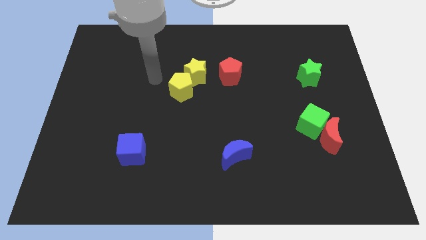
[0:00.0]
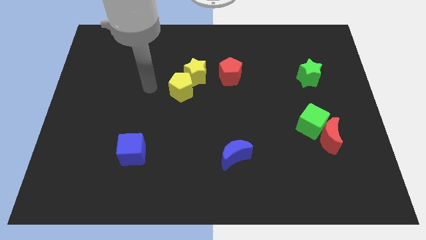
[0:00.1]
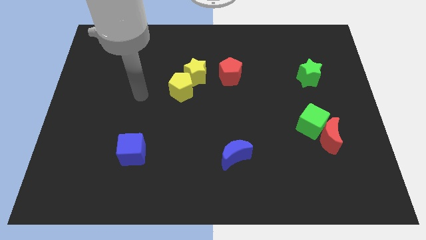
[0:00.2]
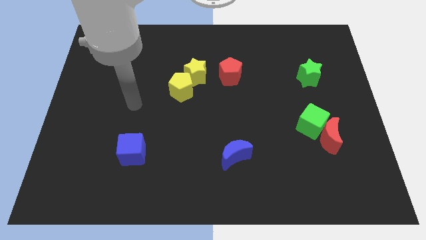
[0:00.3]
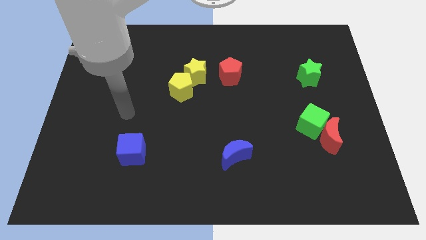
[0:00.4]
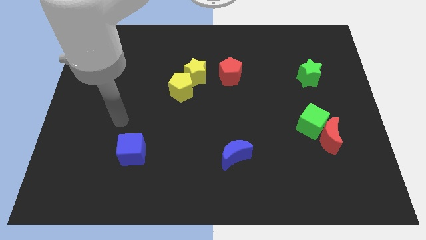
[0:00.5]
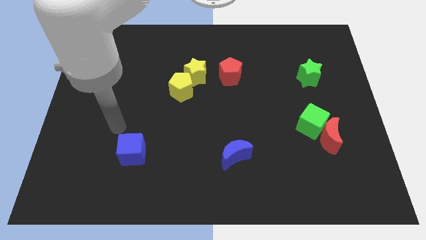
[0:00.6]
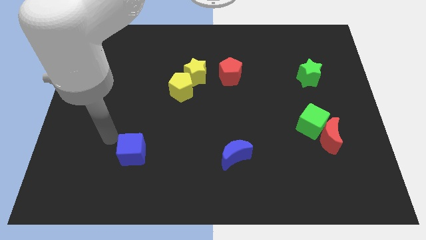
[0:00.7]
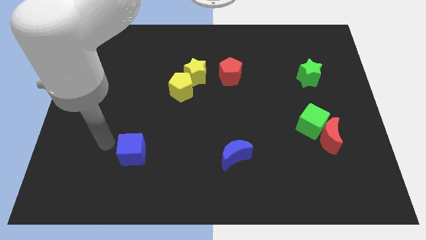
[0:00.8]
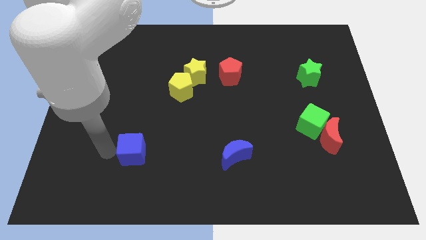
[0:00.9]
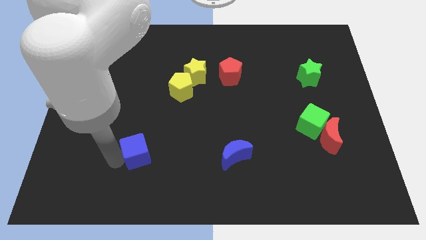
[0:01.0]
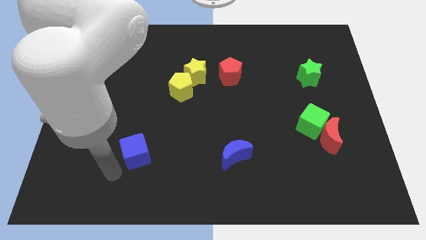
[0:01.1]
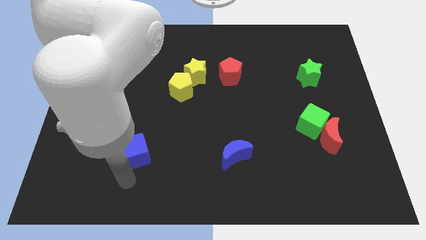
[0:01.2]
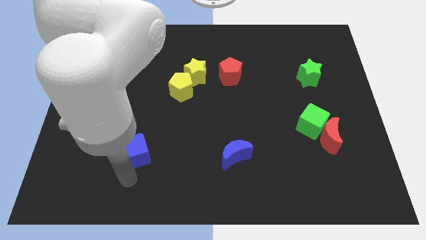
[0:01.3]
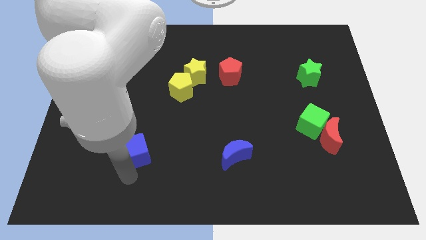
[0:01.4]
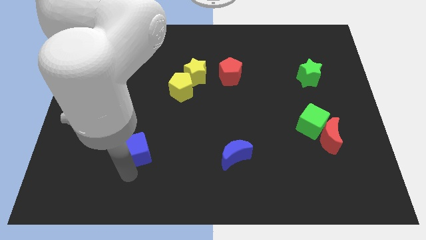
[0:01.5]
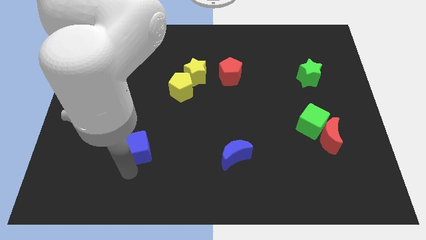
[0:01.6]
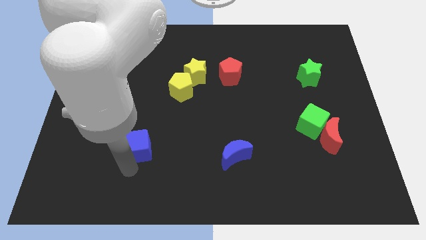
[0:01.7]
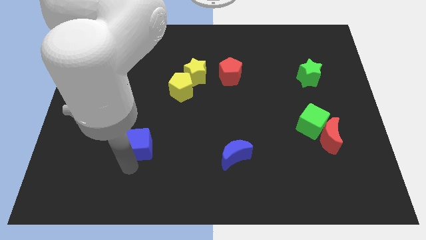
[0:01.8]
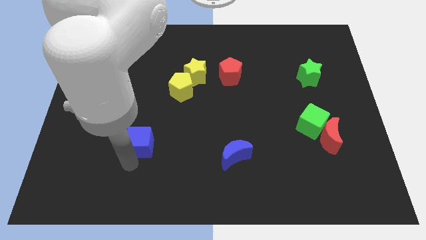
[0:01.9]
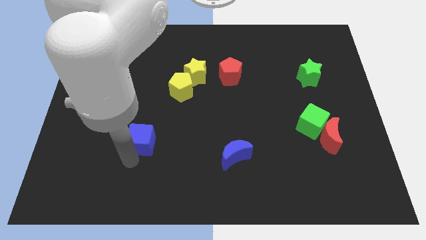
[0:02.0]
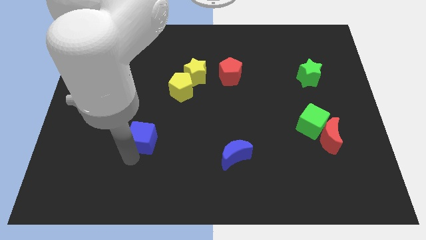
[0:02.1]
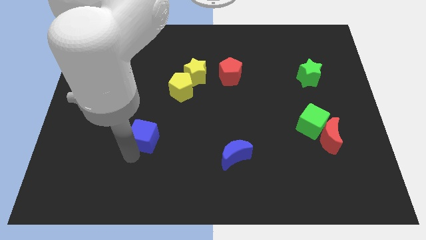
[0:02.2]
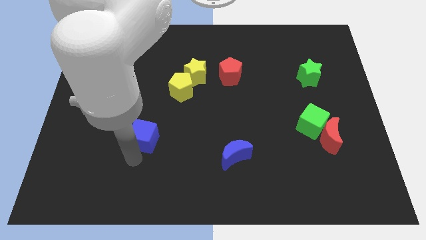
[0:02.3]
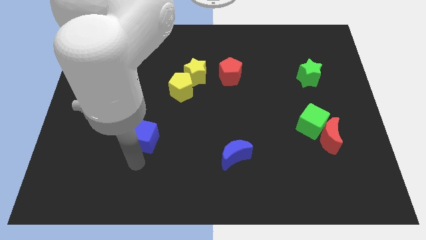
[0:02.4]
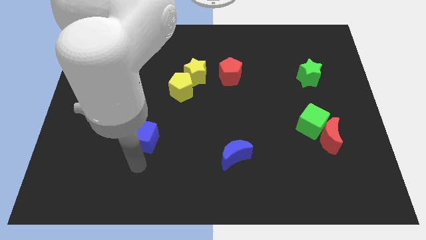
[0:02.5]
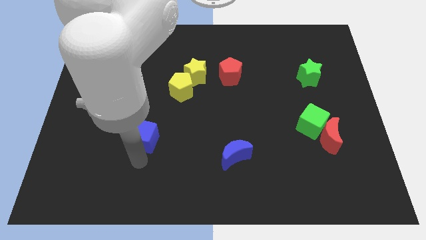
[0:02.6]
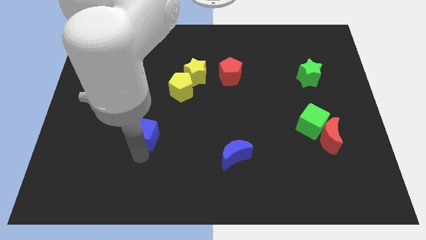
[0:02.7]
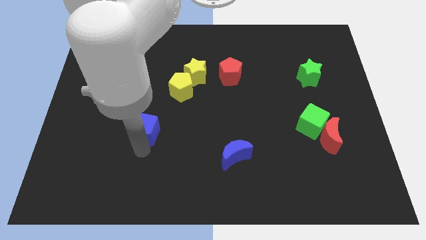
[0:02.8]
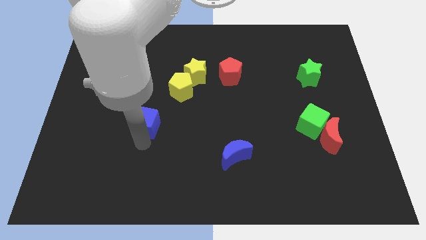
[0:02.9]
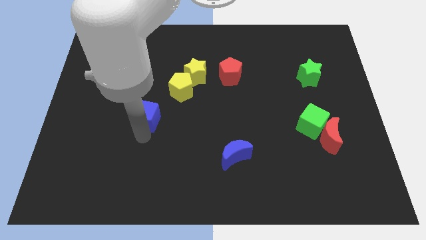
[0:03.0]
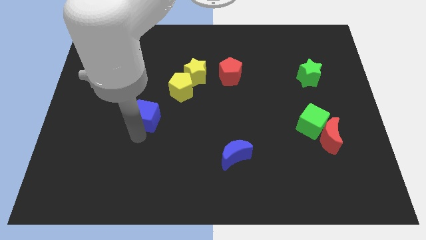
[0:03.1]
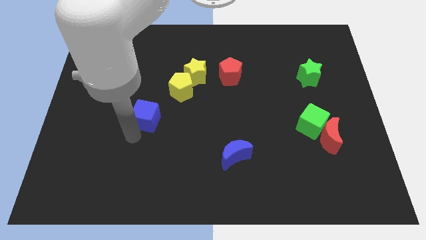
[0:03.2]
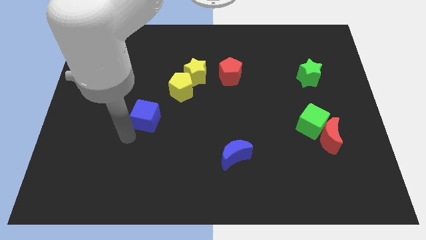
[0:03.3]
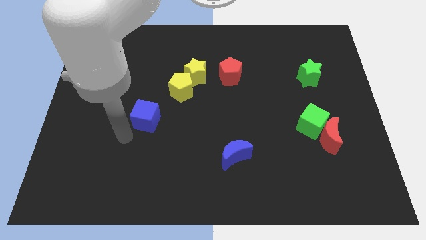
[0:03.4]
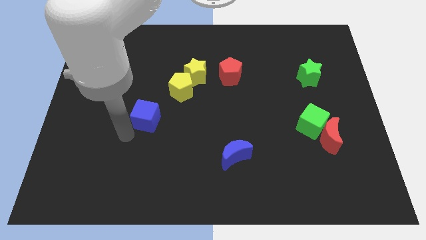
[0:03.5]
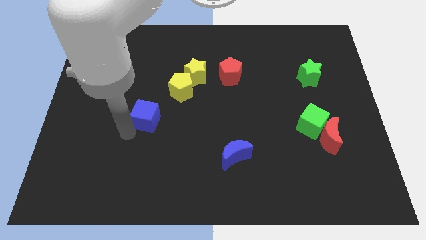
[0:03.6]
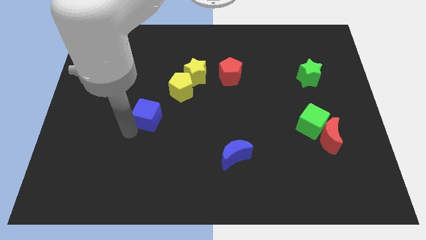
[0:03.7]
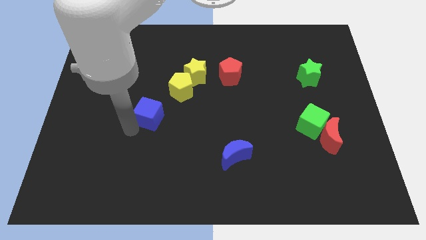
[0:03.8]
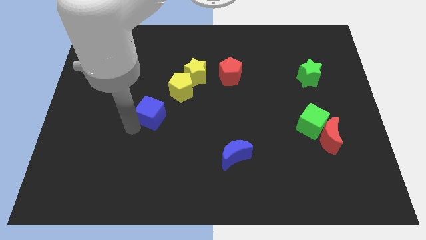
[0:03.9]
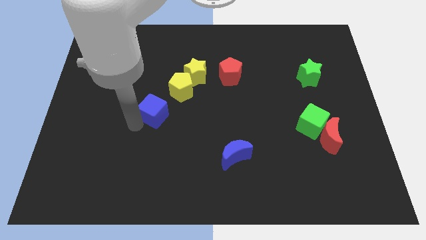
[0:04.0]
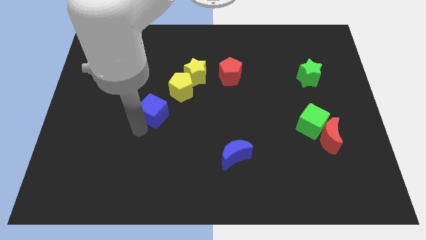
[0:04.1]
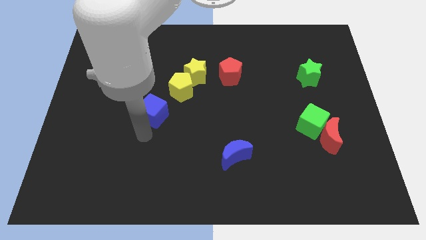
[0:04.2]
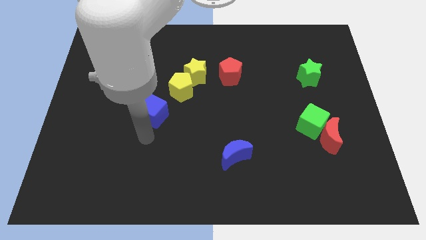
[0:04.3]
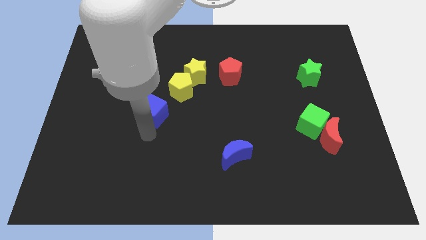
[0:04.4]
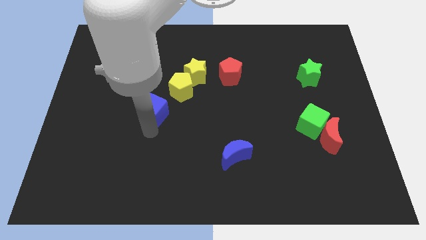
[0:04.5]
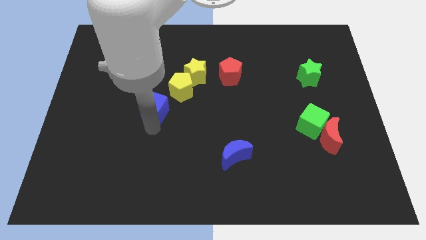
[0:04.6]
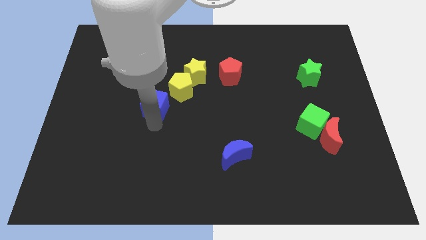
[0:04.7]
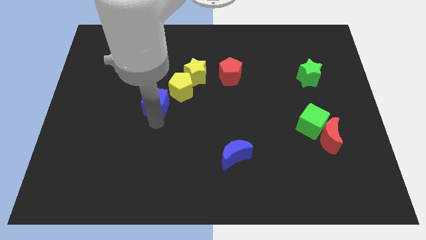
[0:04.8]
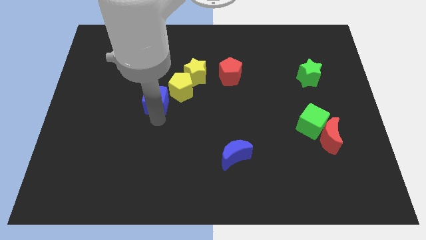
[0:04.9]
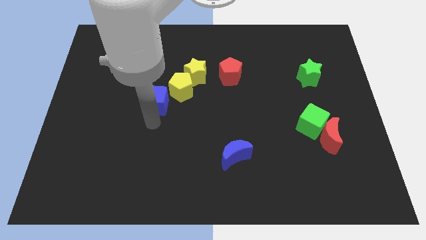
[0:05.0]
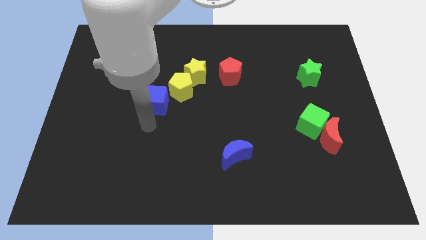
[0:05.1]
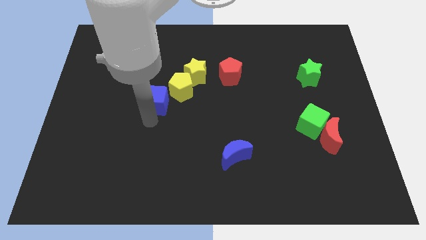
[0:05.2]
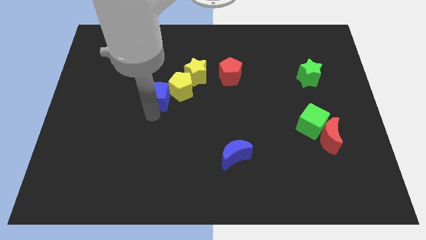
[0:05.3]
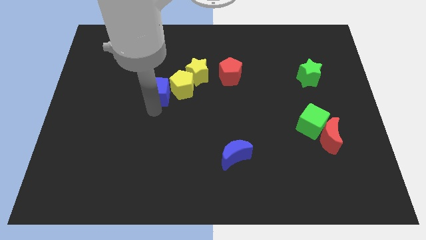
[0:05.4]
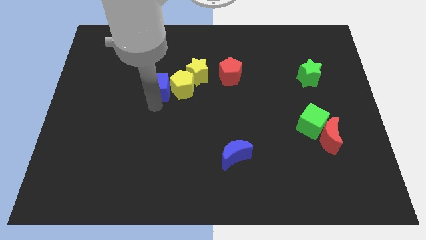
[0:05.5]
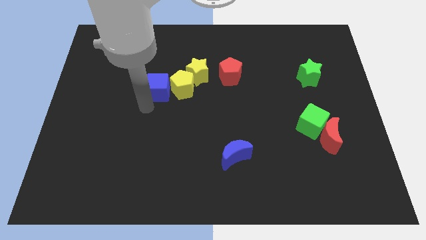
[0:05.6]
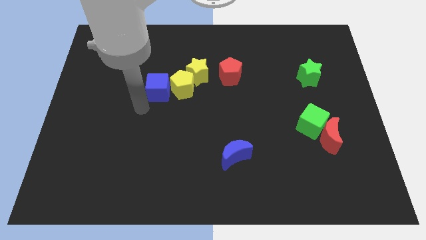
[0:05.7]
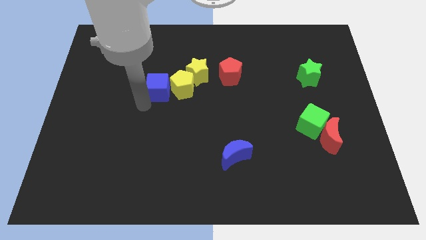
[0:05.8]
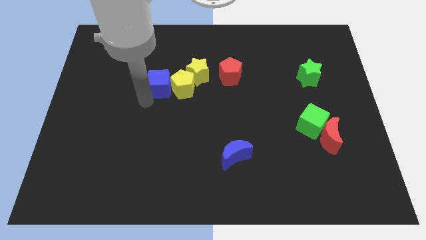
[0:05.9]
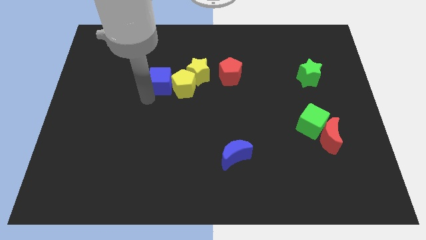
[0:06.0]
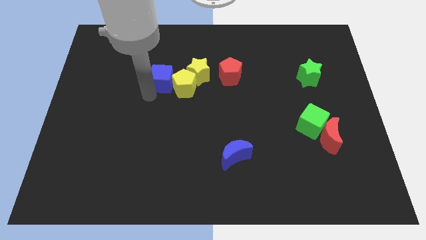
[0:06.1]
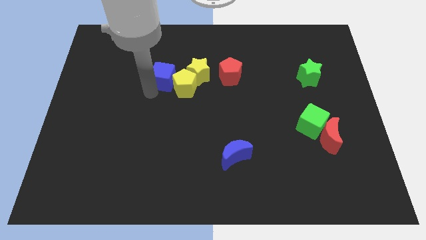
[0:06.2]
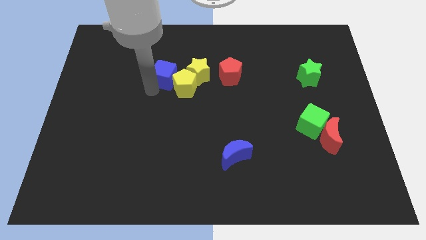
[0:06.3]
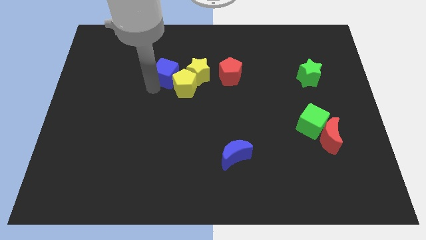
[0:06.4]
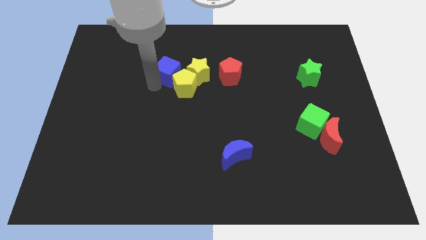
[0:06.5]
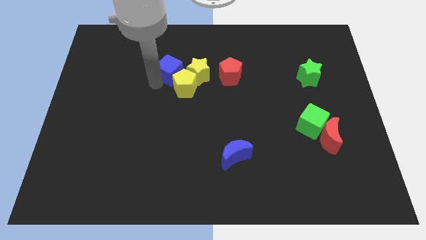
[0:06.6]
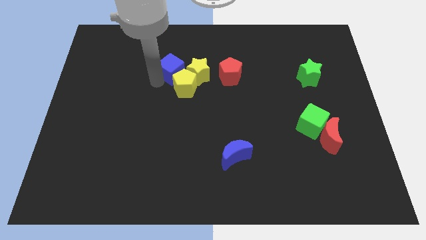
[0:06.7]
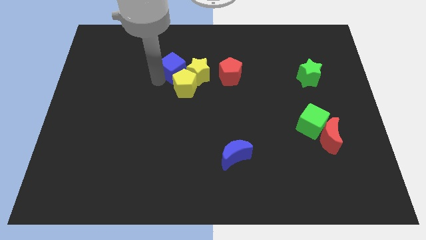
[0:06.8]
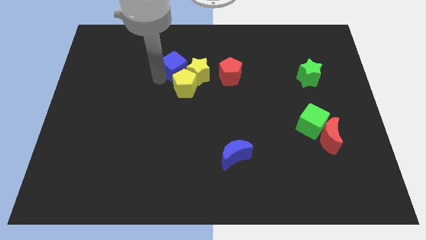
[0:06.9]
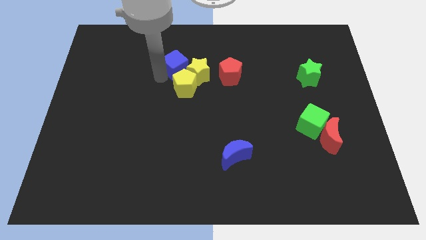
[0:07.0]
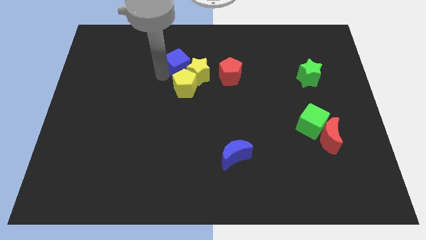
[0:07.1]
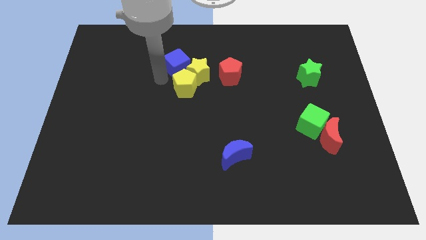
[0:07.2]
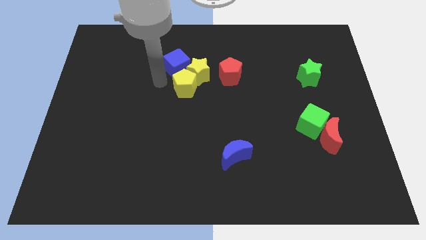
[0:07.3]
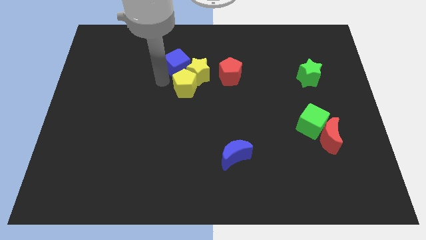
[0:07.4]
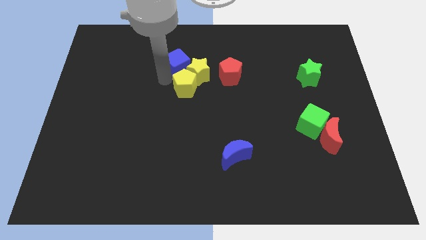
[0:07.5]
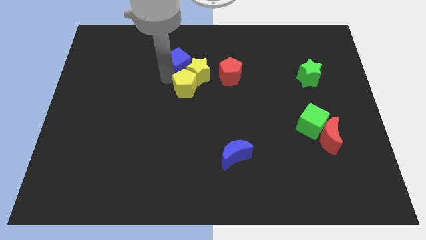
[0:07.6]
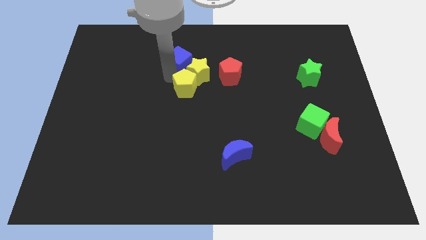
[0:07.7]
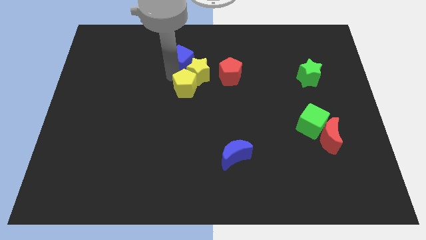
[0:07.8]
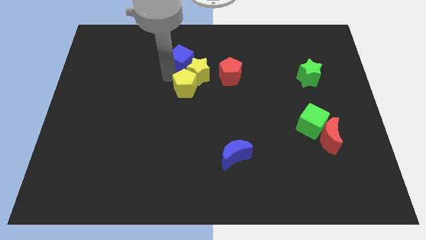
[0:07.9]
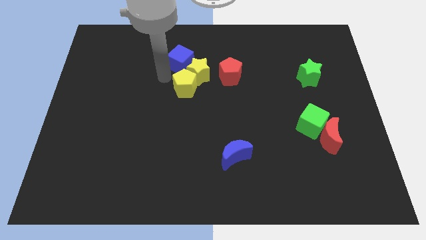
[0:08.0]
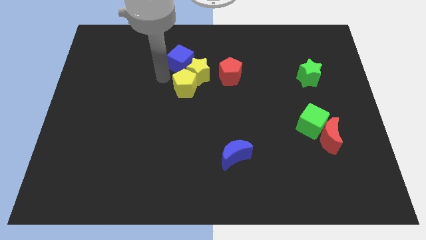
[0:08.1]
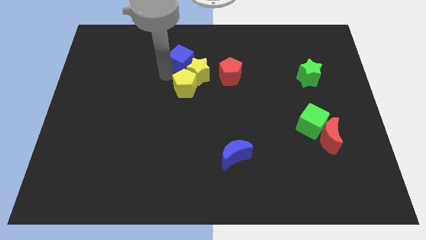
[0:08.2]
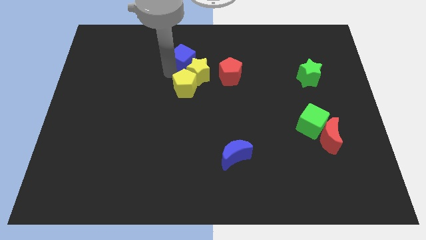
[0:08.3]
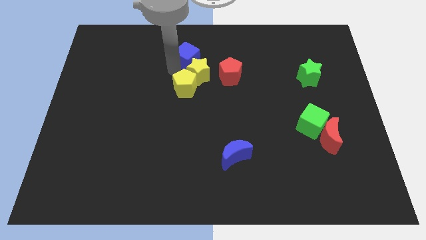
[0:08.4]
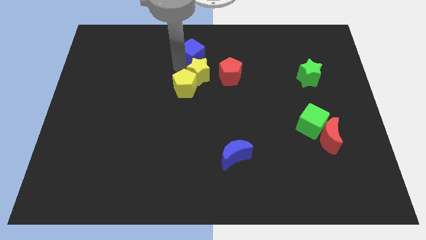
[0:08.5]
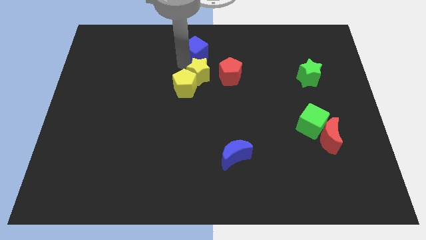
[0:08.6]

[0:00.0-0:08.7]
put the blue cube to the towards your base
